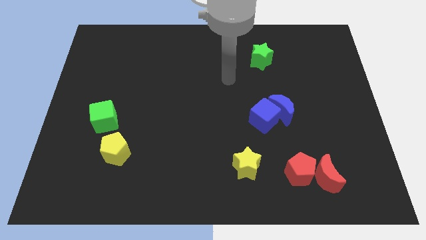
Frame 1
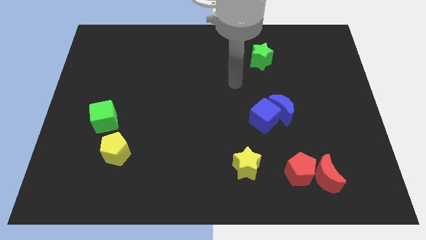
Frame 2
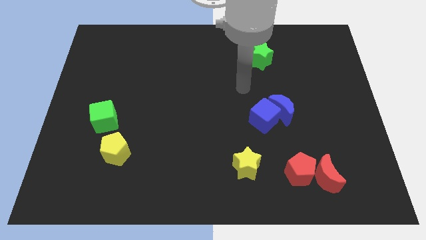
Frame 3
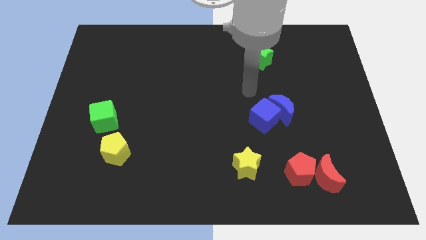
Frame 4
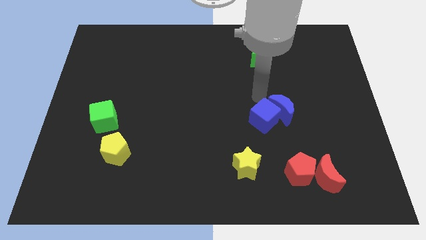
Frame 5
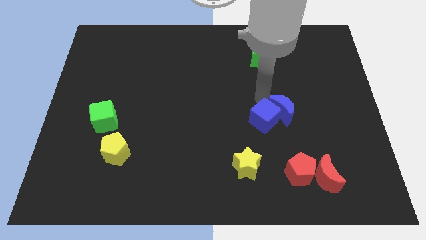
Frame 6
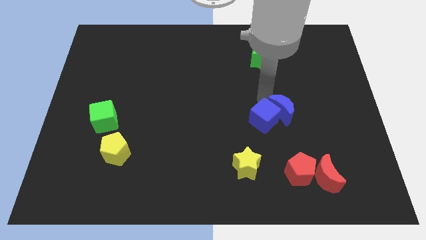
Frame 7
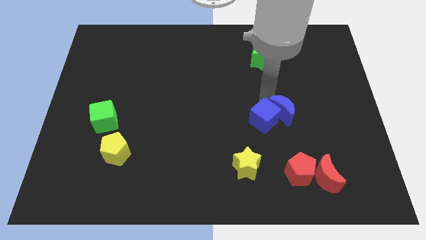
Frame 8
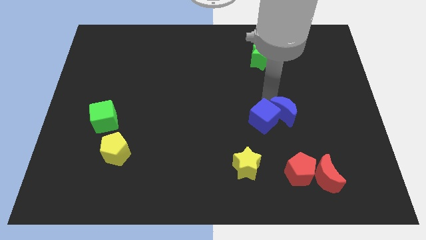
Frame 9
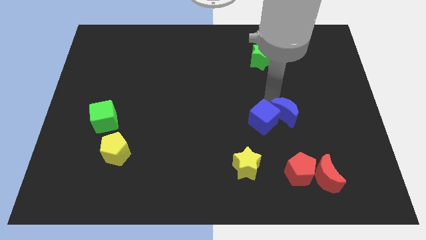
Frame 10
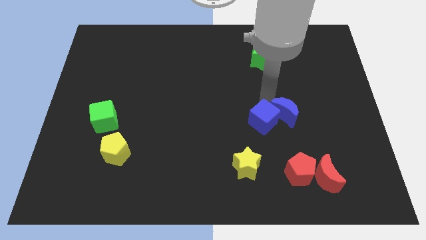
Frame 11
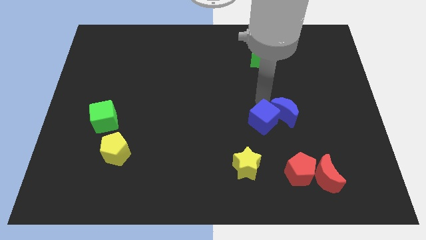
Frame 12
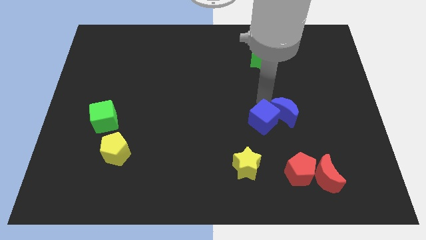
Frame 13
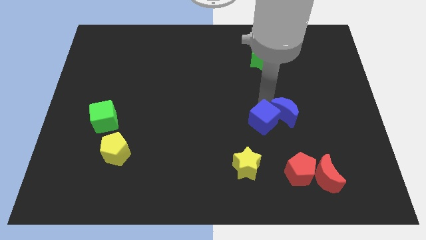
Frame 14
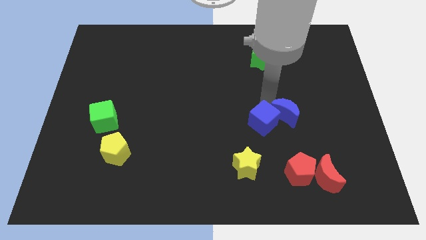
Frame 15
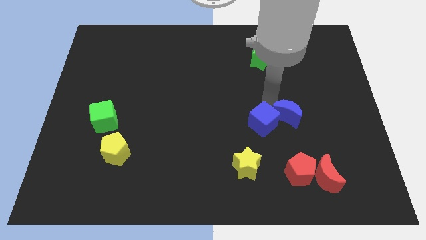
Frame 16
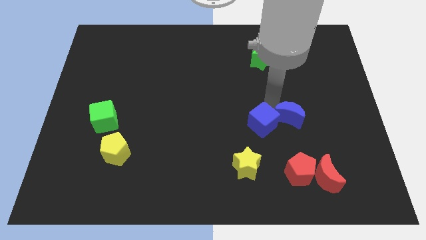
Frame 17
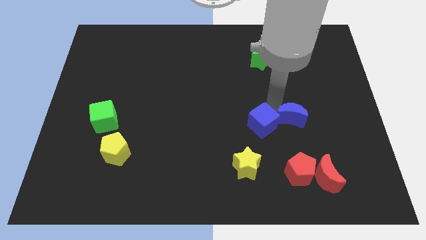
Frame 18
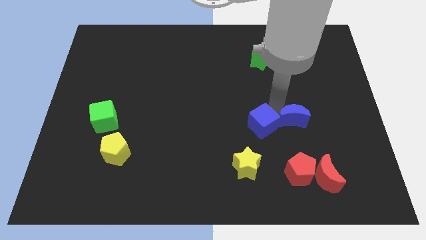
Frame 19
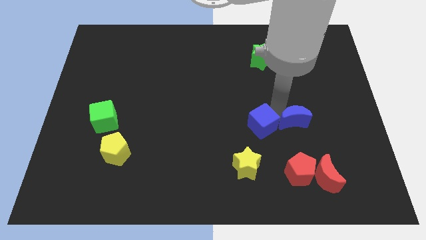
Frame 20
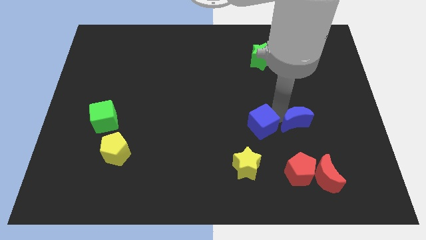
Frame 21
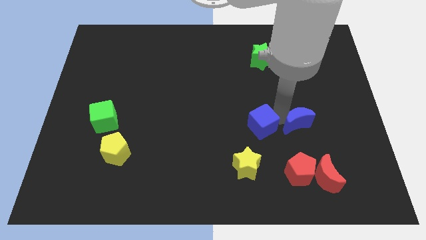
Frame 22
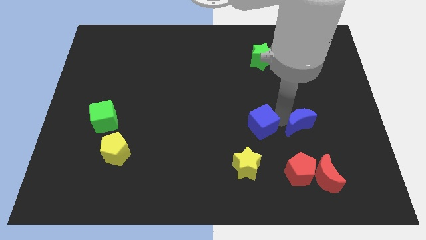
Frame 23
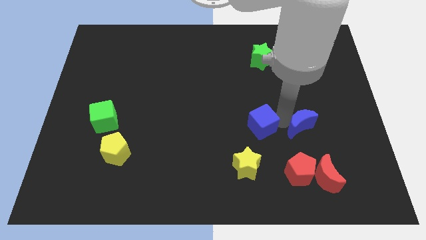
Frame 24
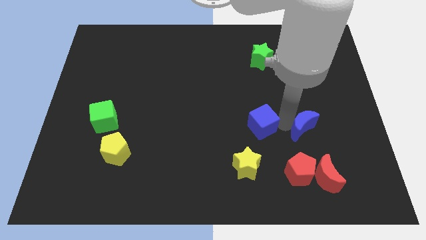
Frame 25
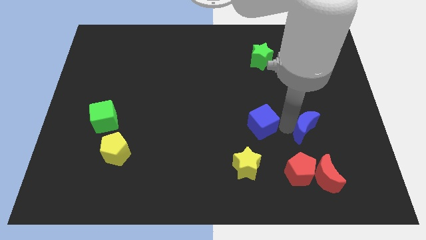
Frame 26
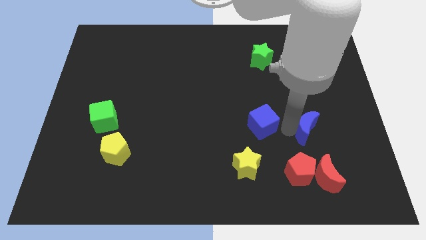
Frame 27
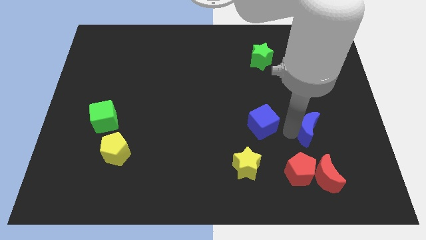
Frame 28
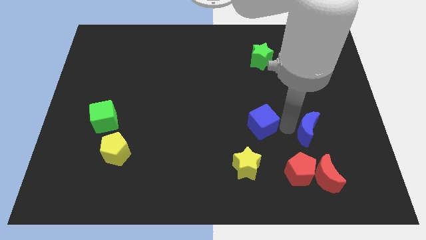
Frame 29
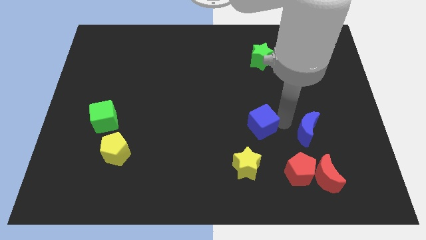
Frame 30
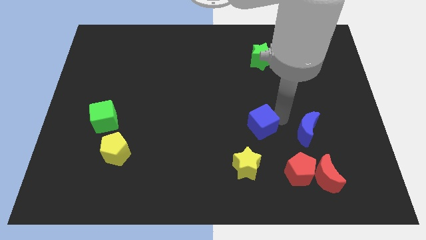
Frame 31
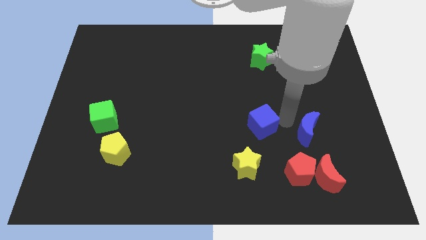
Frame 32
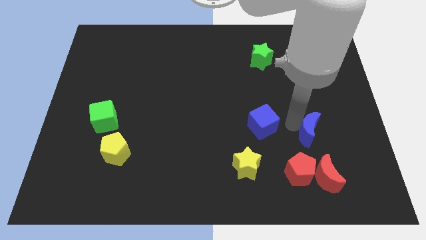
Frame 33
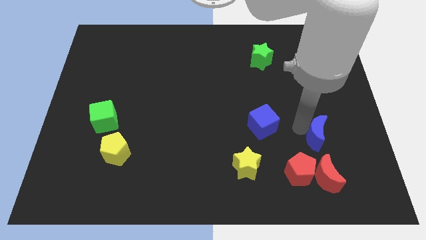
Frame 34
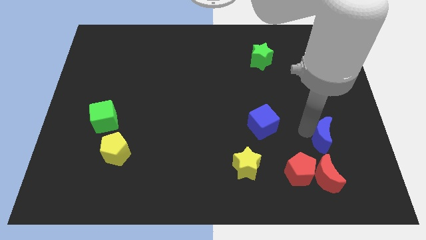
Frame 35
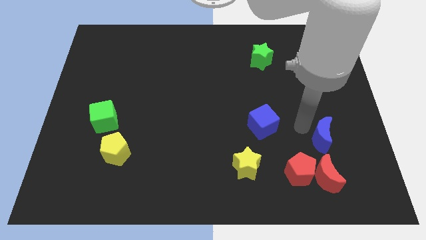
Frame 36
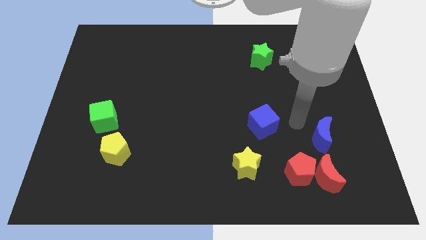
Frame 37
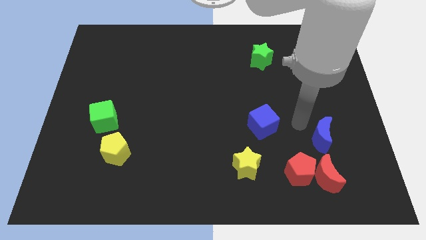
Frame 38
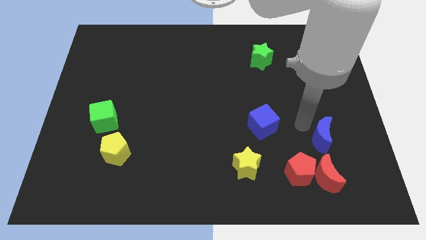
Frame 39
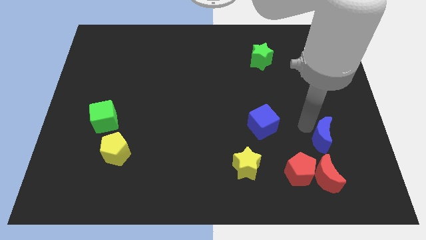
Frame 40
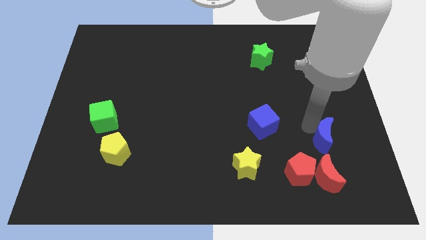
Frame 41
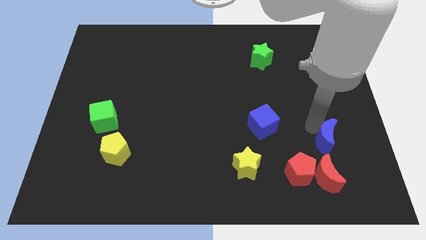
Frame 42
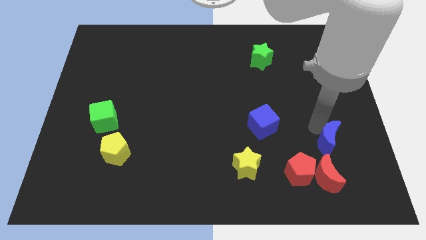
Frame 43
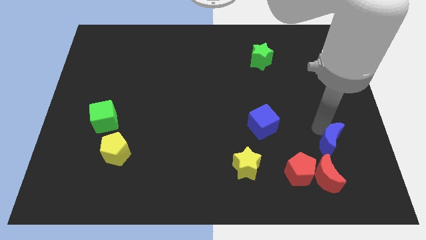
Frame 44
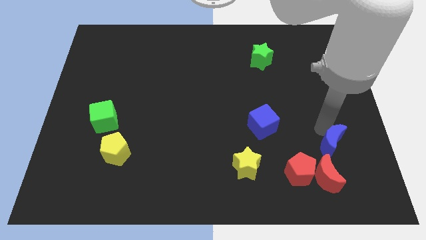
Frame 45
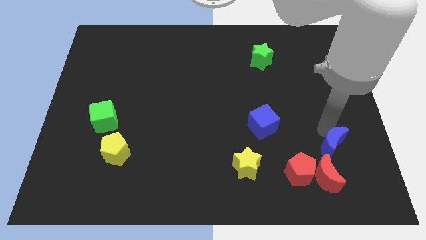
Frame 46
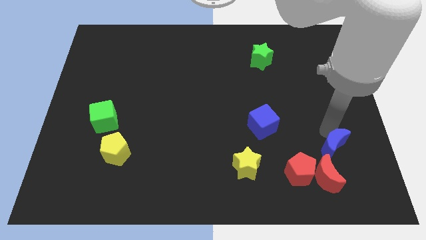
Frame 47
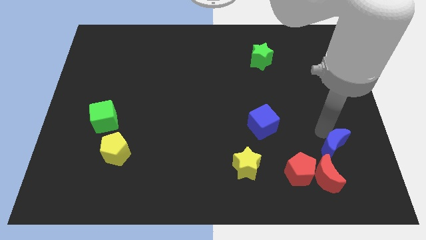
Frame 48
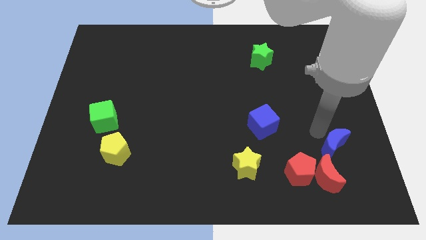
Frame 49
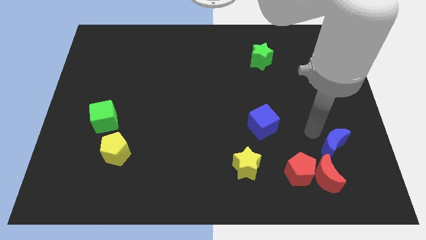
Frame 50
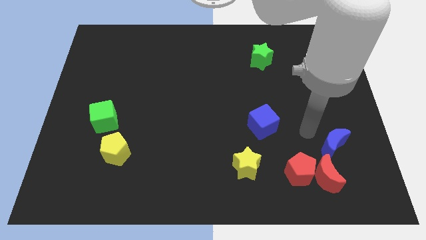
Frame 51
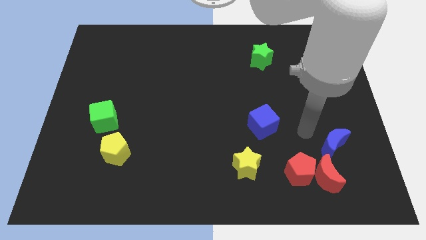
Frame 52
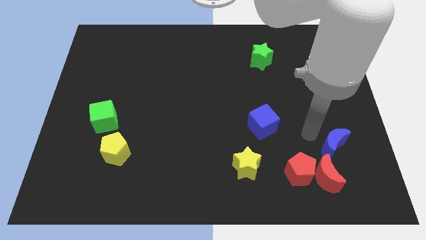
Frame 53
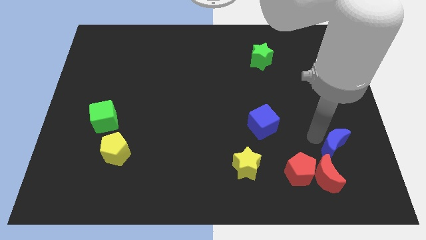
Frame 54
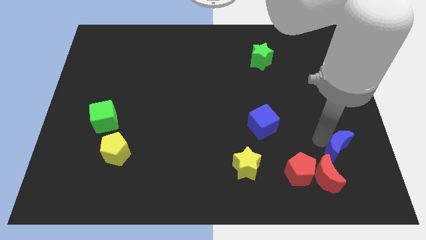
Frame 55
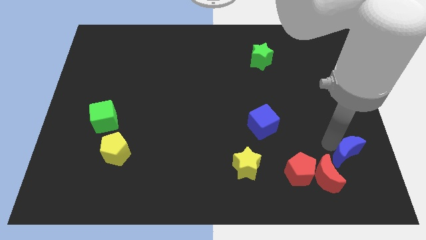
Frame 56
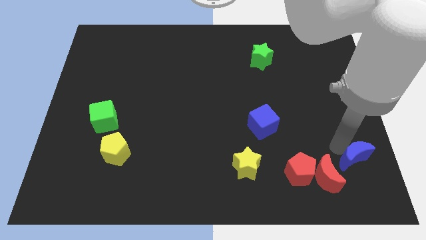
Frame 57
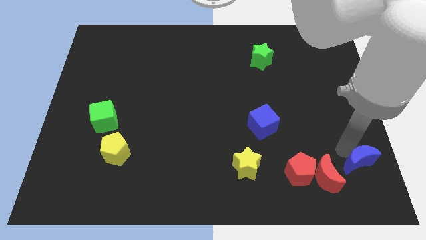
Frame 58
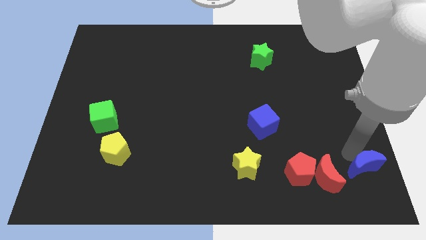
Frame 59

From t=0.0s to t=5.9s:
push the blue moon to the bottom right corner
